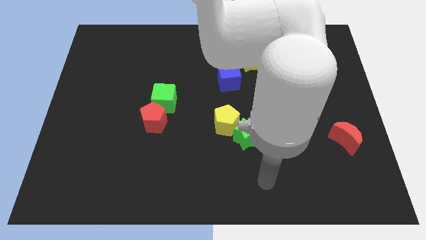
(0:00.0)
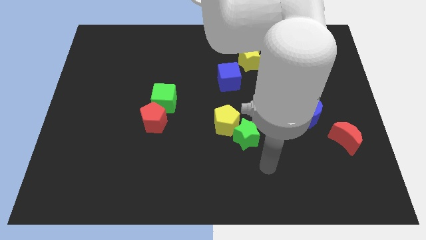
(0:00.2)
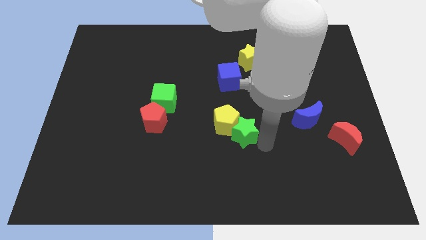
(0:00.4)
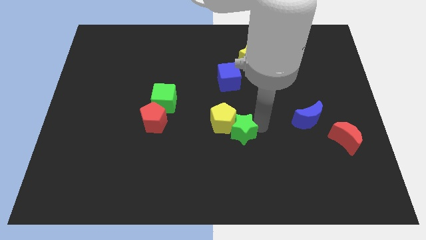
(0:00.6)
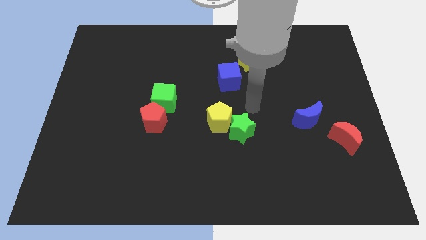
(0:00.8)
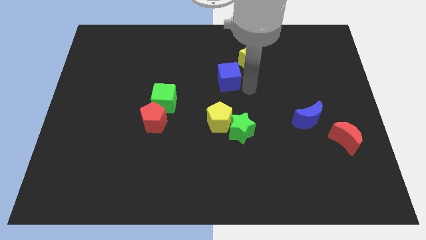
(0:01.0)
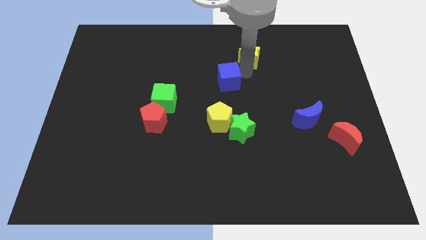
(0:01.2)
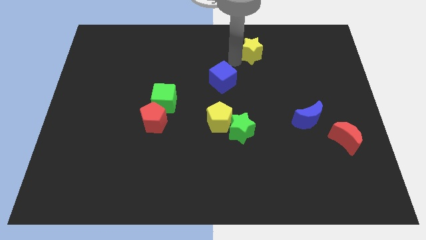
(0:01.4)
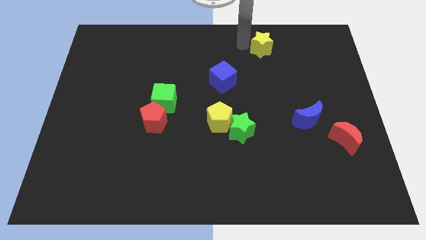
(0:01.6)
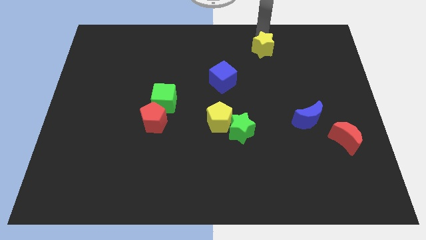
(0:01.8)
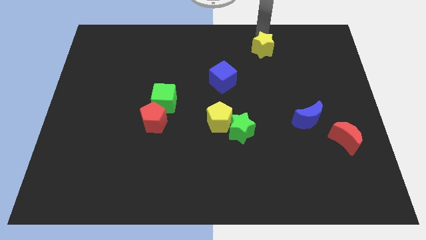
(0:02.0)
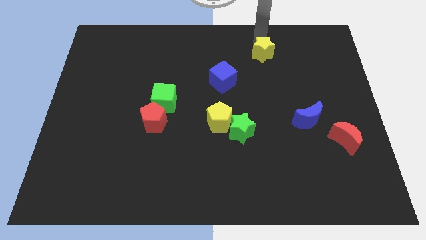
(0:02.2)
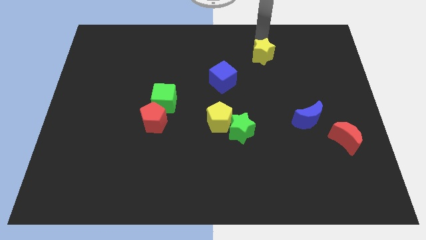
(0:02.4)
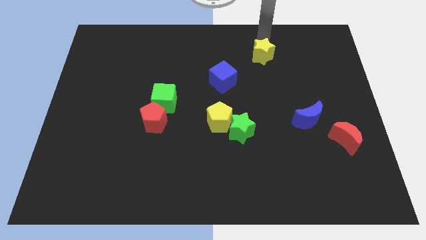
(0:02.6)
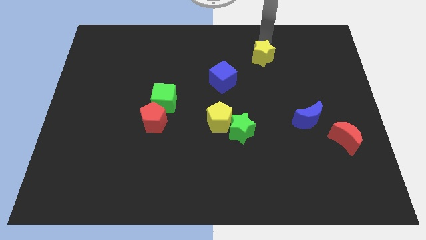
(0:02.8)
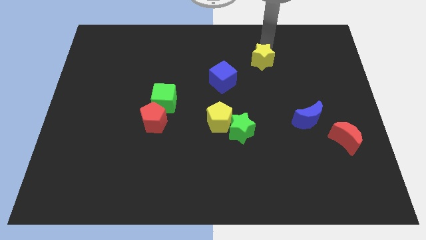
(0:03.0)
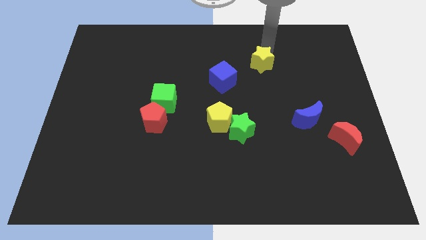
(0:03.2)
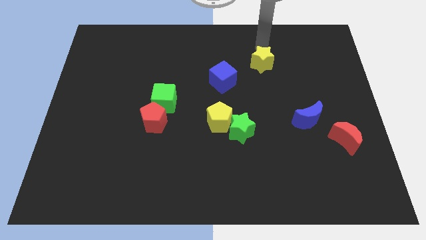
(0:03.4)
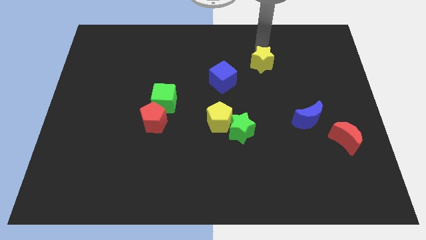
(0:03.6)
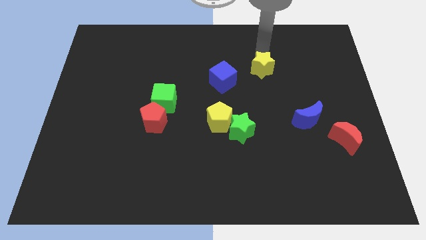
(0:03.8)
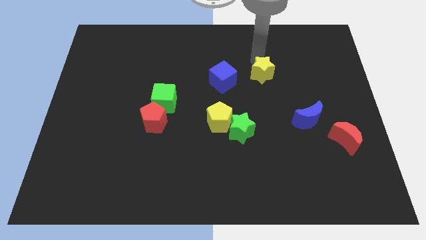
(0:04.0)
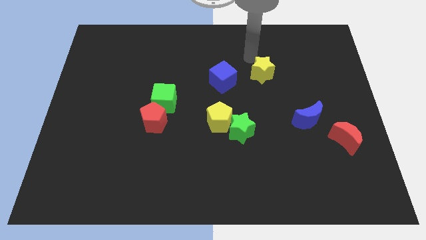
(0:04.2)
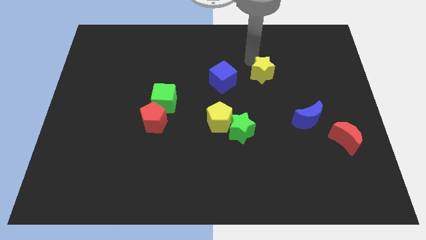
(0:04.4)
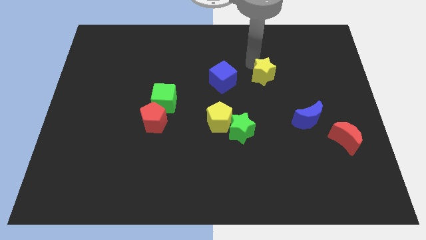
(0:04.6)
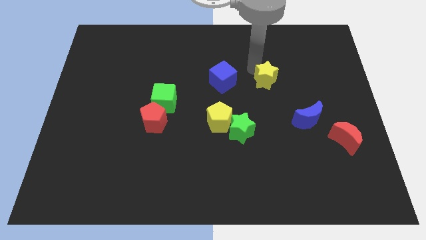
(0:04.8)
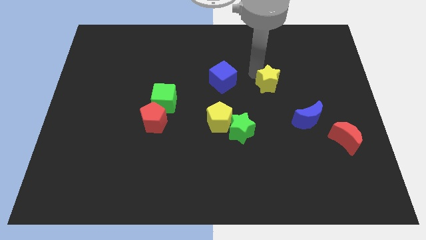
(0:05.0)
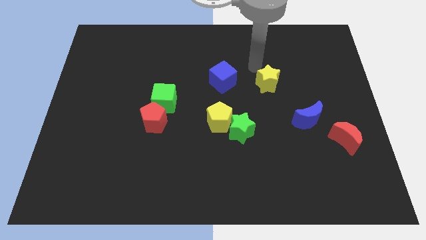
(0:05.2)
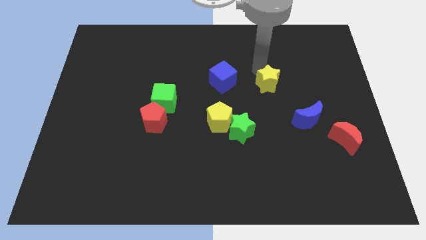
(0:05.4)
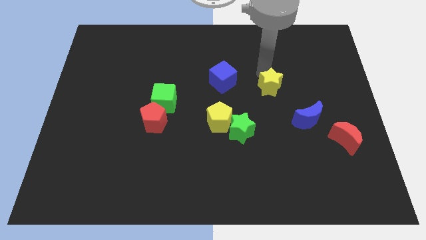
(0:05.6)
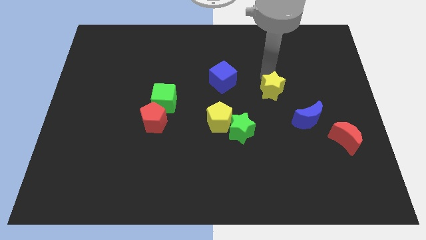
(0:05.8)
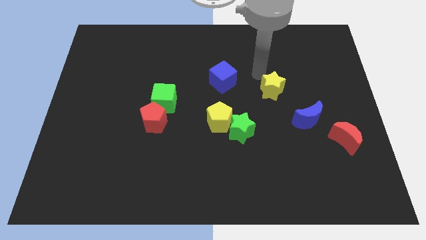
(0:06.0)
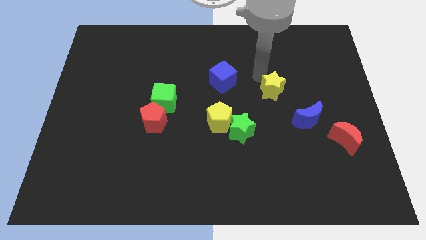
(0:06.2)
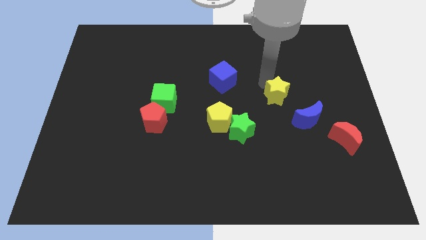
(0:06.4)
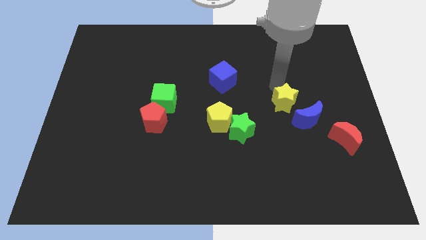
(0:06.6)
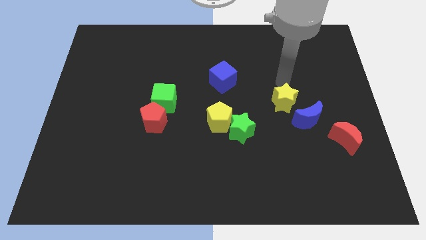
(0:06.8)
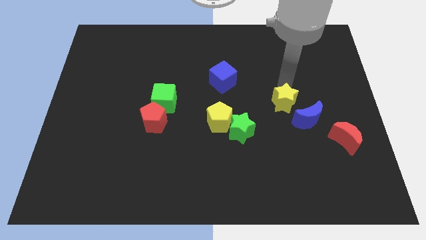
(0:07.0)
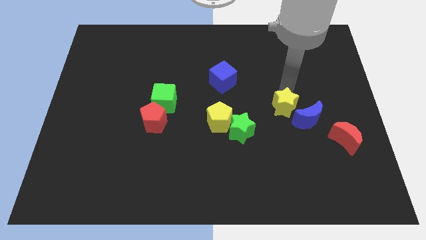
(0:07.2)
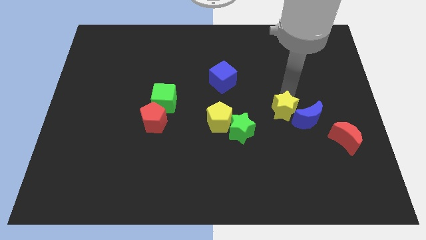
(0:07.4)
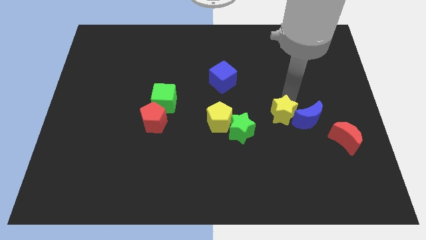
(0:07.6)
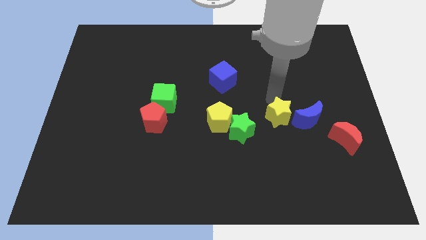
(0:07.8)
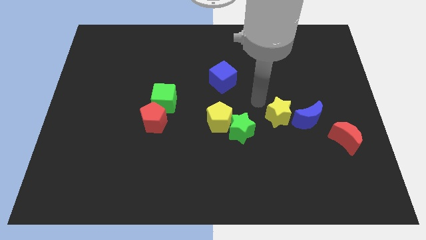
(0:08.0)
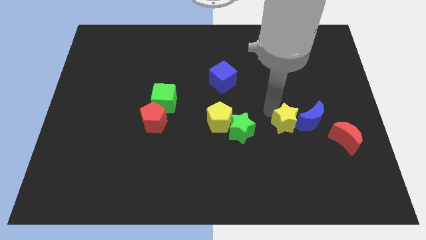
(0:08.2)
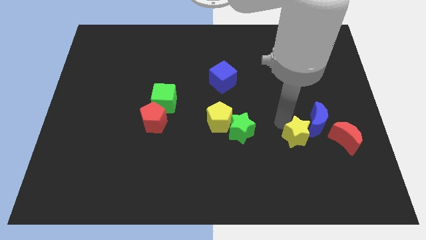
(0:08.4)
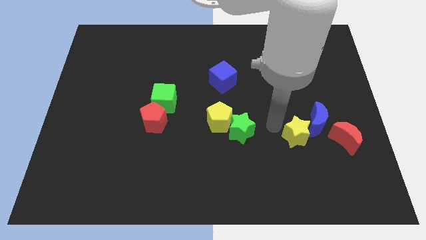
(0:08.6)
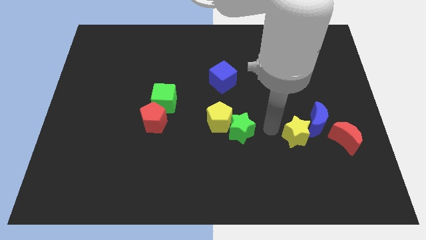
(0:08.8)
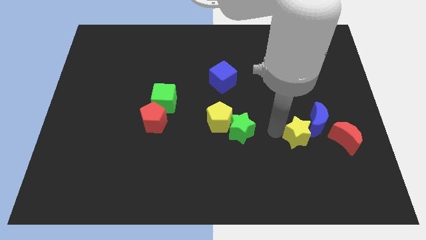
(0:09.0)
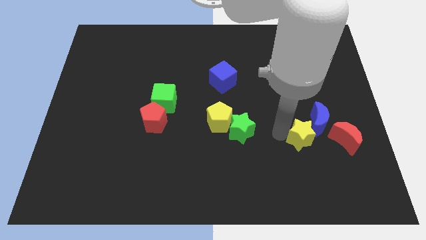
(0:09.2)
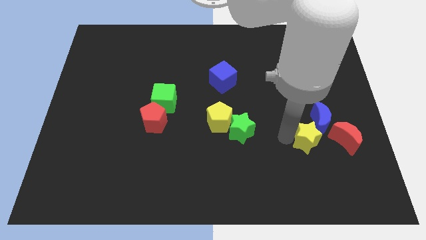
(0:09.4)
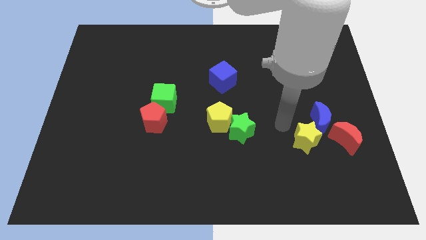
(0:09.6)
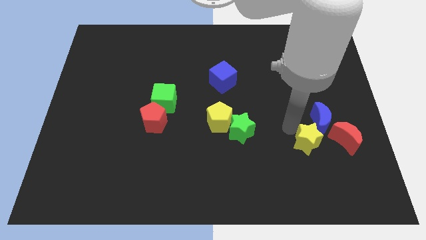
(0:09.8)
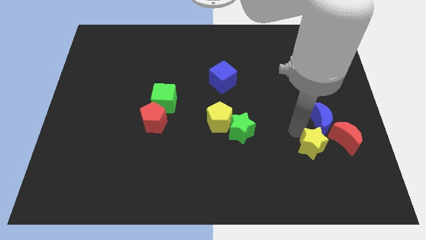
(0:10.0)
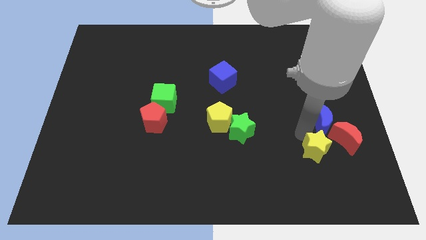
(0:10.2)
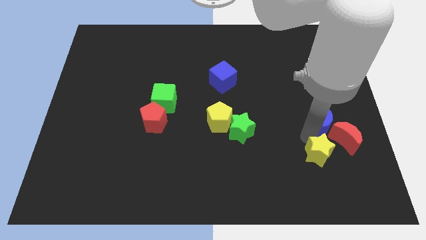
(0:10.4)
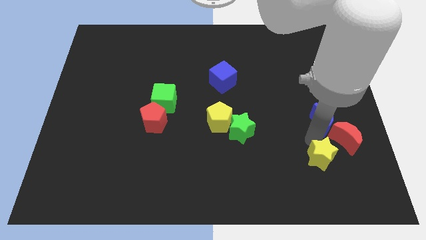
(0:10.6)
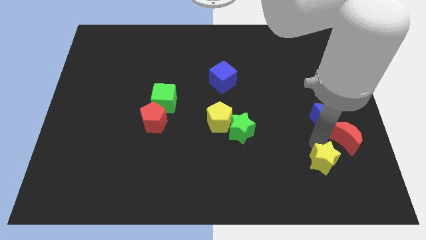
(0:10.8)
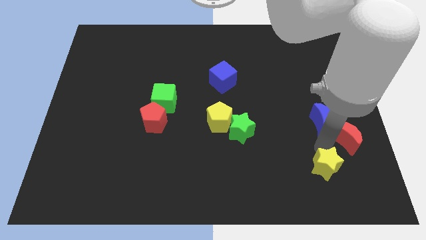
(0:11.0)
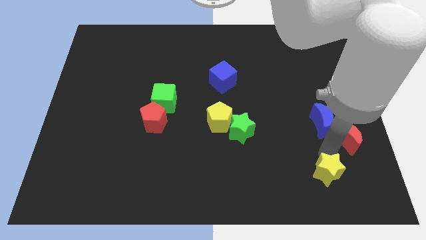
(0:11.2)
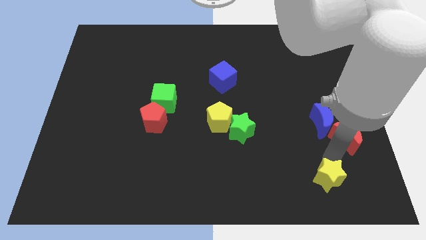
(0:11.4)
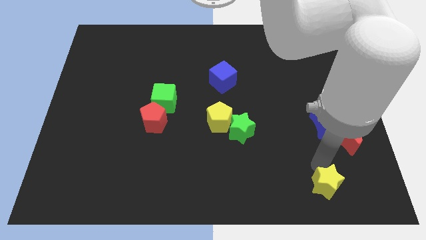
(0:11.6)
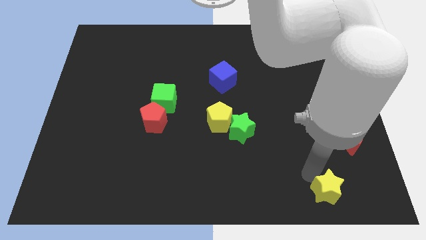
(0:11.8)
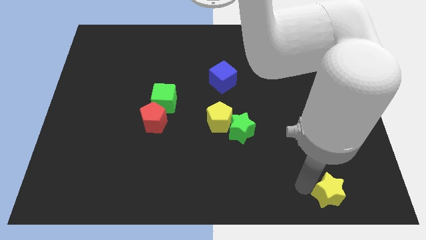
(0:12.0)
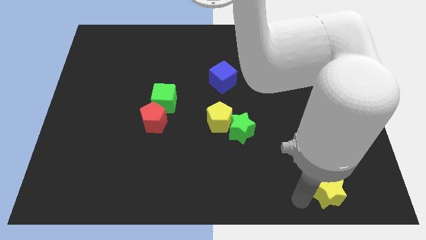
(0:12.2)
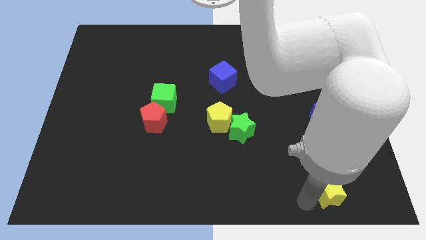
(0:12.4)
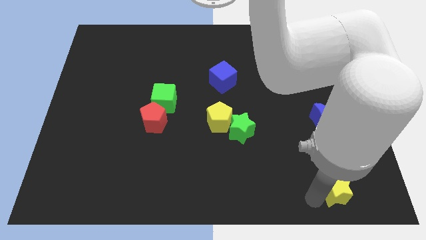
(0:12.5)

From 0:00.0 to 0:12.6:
slide the yellow star to the bottom of the red moon
